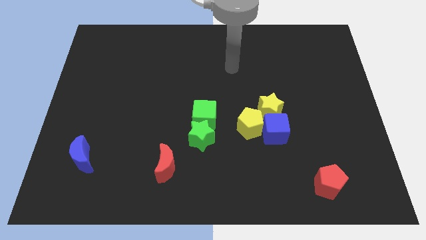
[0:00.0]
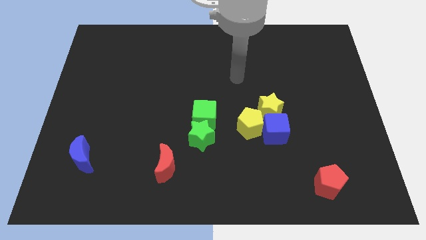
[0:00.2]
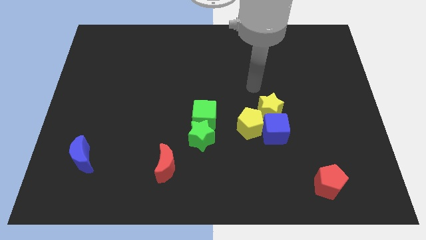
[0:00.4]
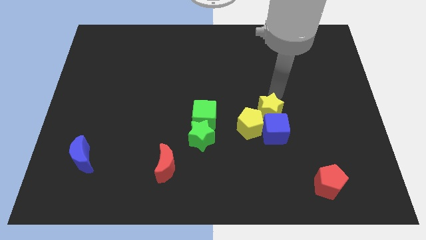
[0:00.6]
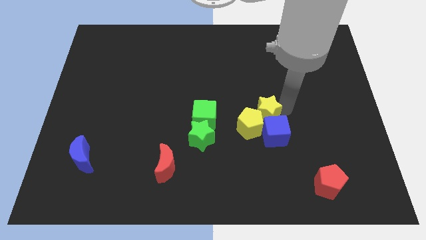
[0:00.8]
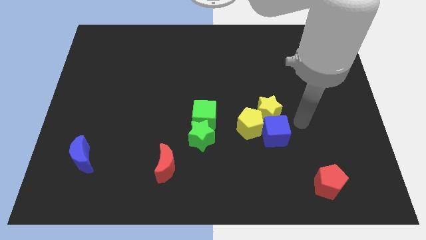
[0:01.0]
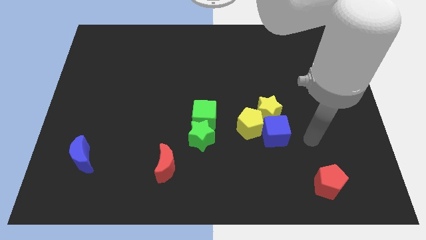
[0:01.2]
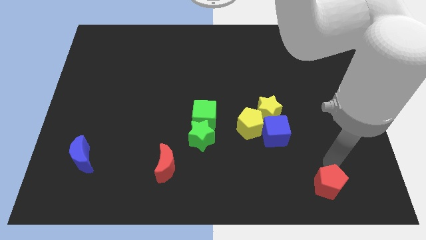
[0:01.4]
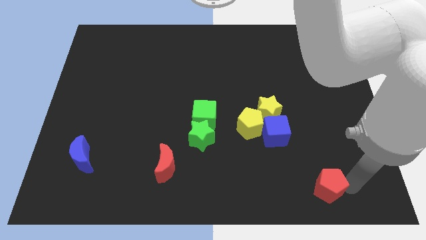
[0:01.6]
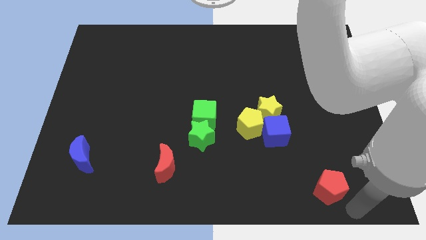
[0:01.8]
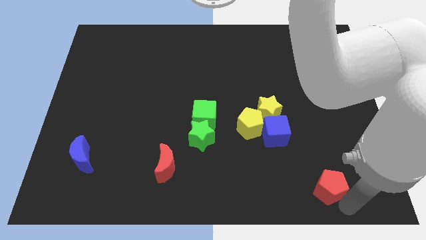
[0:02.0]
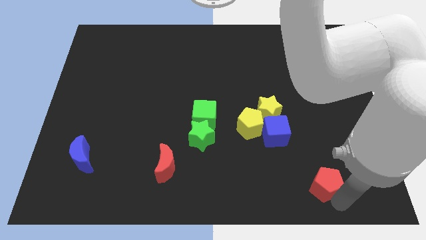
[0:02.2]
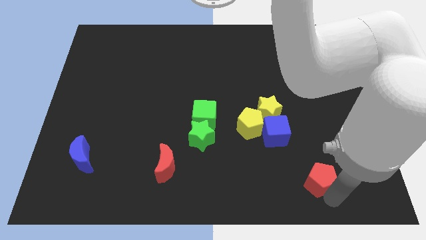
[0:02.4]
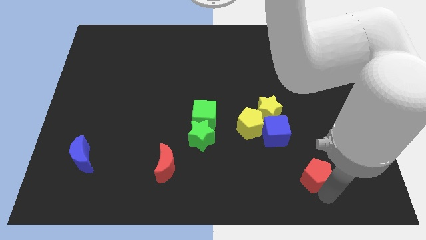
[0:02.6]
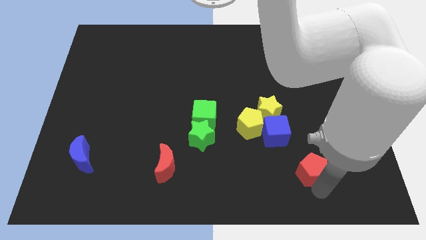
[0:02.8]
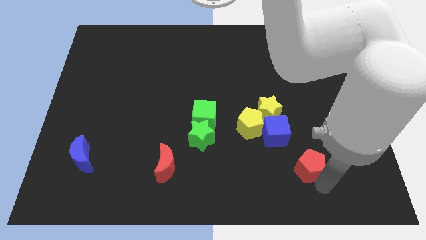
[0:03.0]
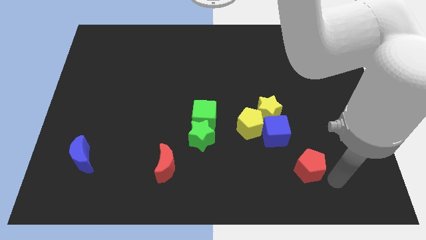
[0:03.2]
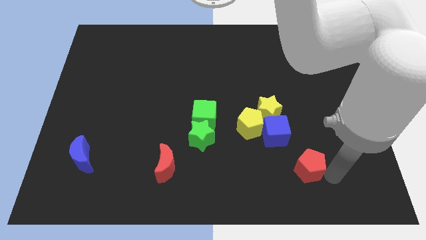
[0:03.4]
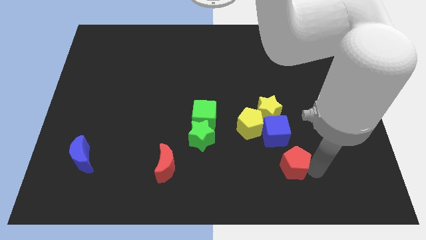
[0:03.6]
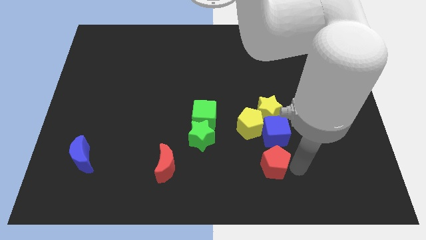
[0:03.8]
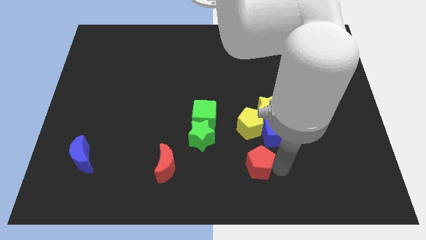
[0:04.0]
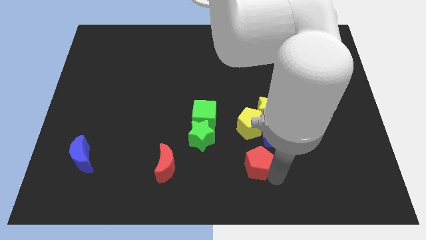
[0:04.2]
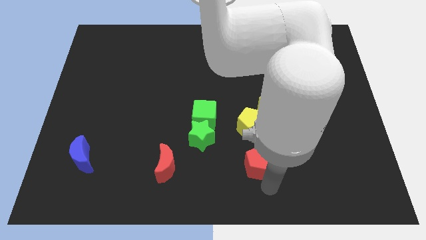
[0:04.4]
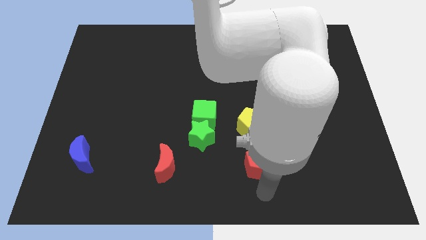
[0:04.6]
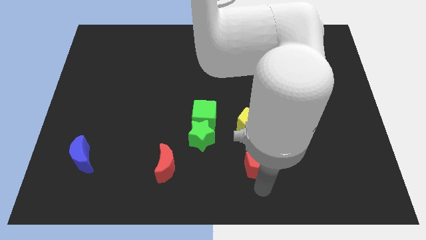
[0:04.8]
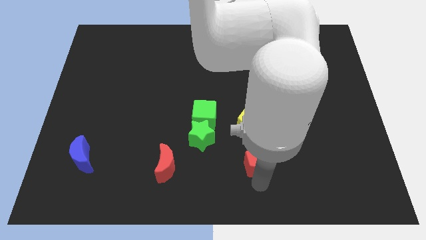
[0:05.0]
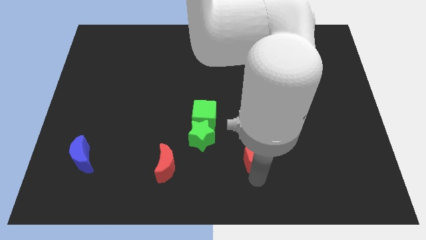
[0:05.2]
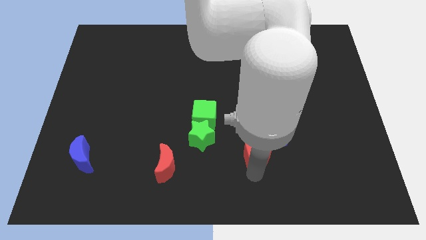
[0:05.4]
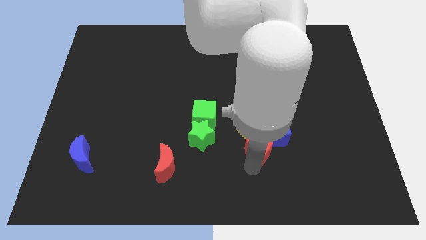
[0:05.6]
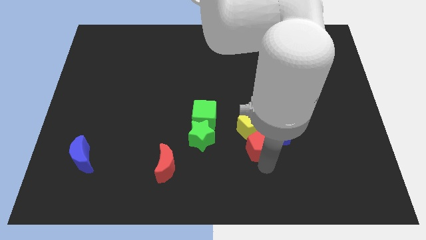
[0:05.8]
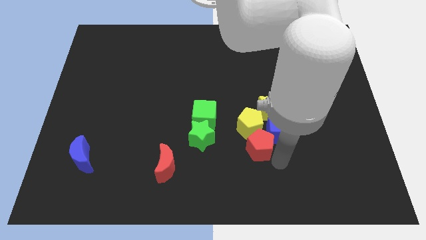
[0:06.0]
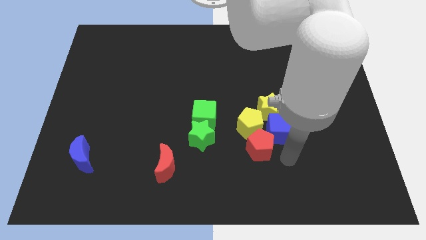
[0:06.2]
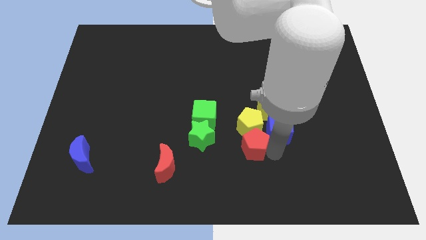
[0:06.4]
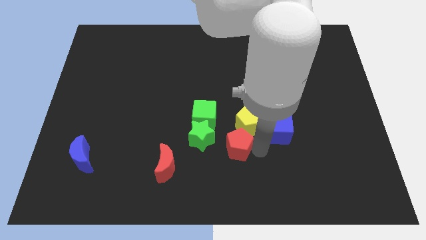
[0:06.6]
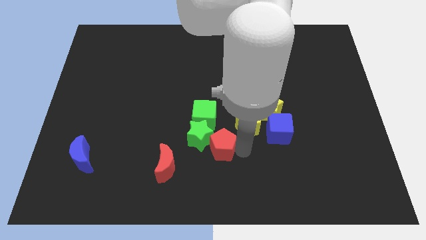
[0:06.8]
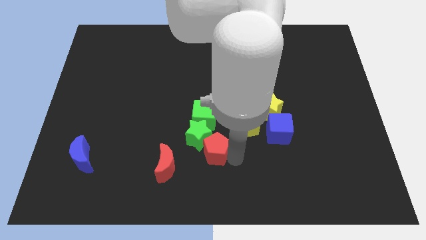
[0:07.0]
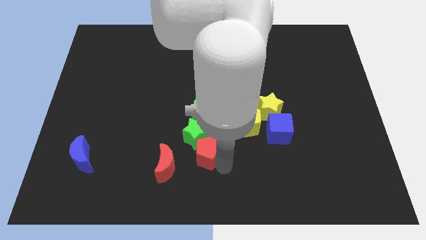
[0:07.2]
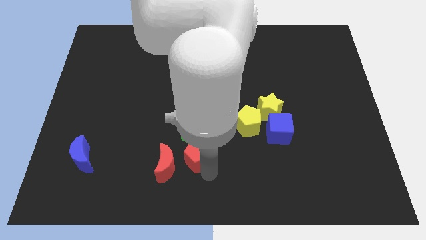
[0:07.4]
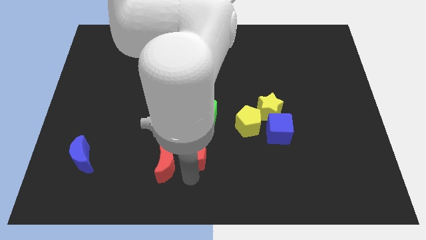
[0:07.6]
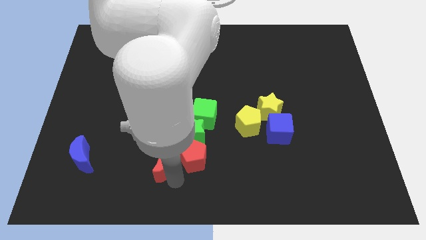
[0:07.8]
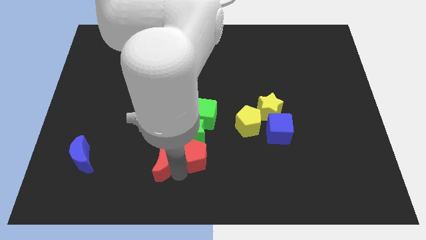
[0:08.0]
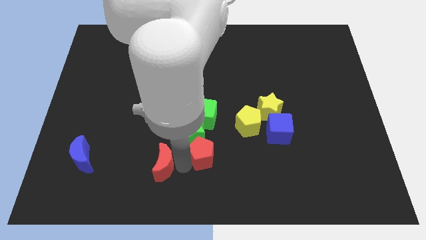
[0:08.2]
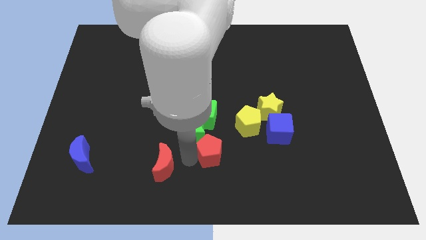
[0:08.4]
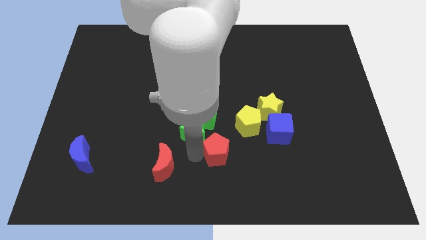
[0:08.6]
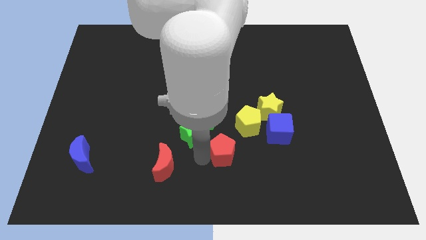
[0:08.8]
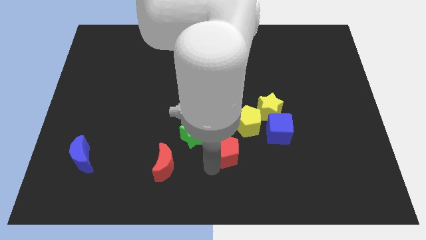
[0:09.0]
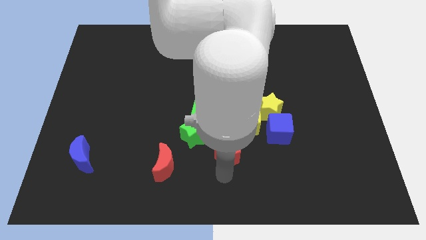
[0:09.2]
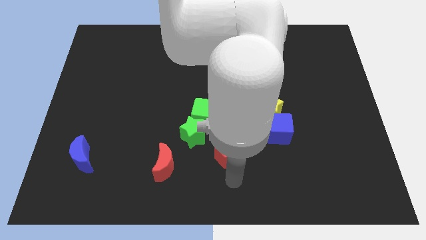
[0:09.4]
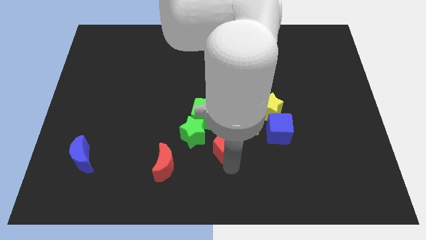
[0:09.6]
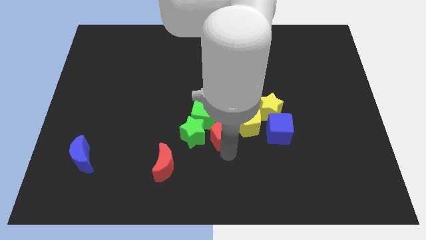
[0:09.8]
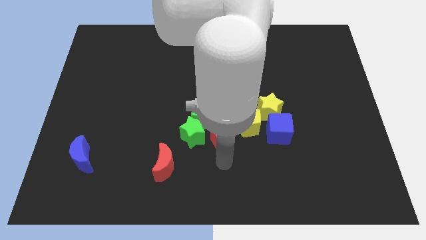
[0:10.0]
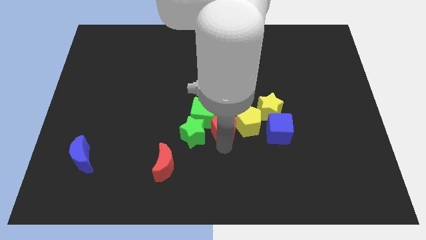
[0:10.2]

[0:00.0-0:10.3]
move the red pentagon to the top left side of the yellow pentagon

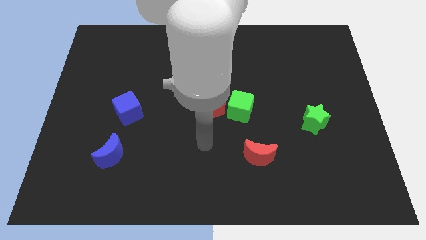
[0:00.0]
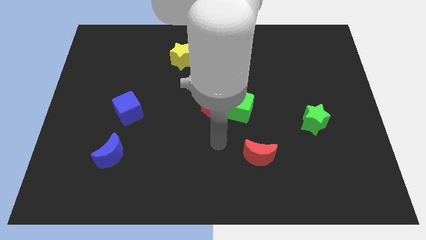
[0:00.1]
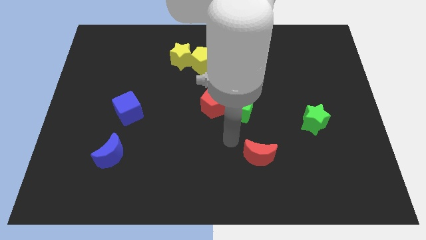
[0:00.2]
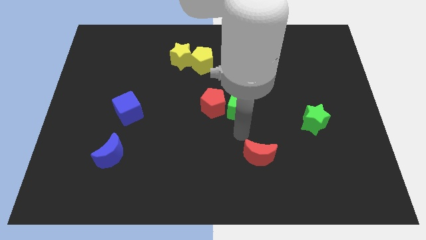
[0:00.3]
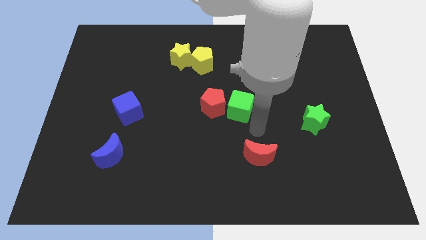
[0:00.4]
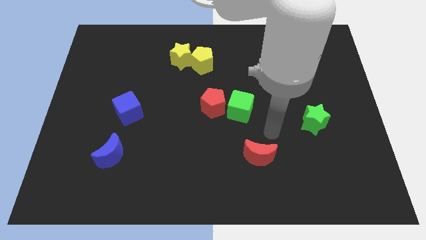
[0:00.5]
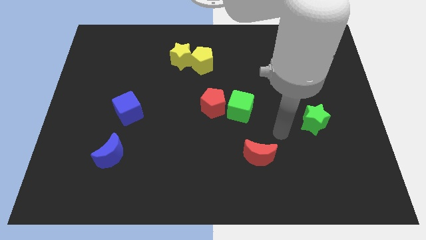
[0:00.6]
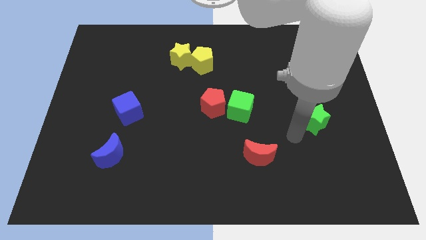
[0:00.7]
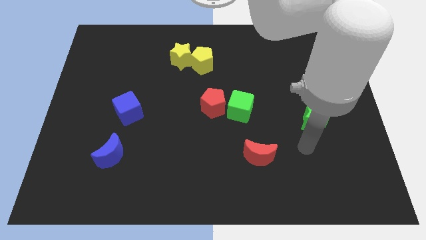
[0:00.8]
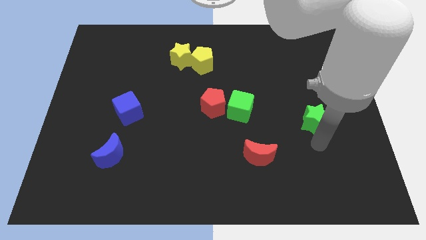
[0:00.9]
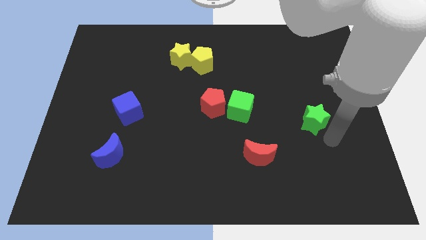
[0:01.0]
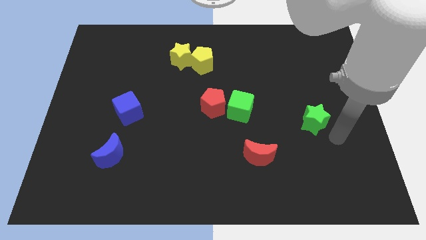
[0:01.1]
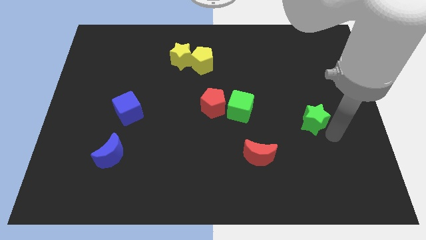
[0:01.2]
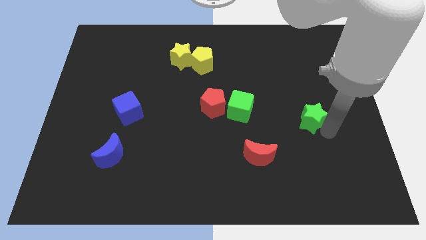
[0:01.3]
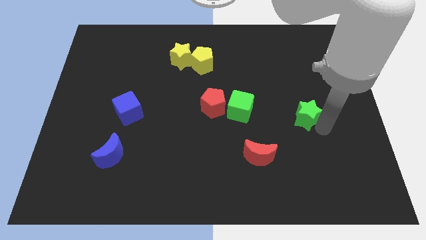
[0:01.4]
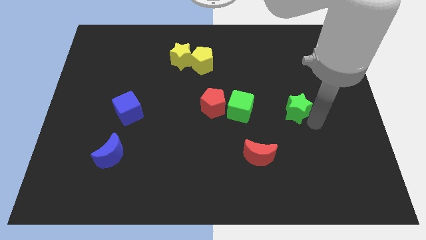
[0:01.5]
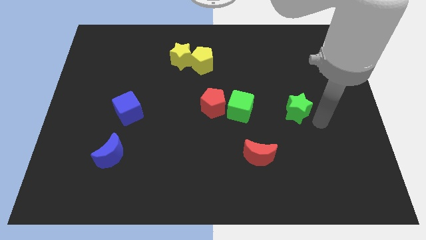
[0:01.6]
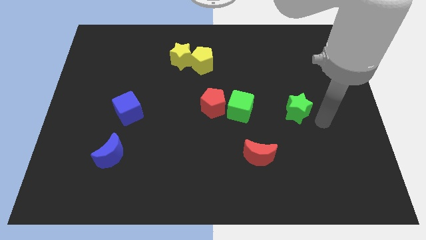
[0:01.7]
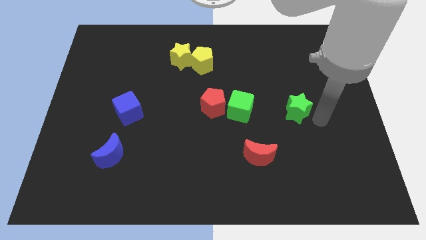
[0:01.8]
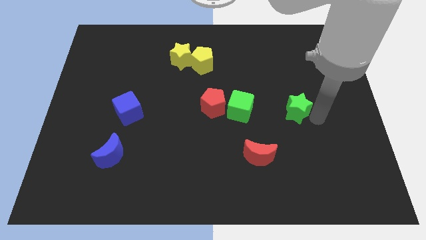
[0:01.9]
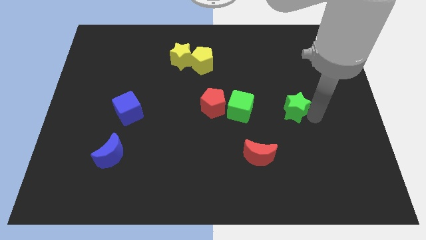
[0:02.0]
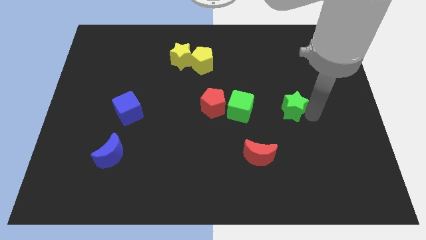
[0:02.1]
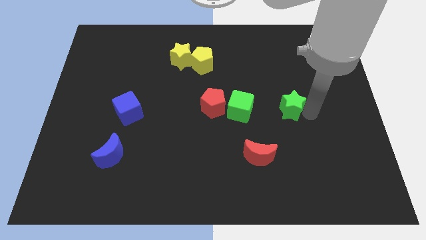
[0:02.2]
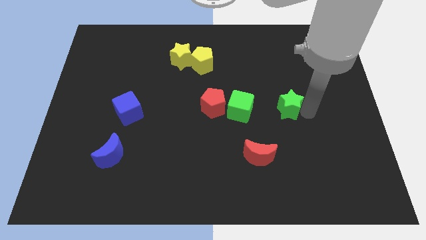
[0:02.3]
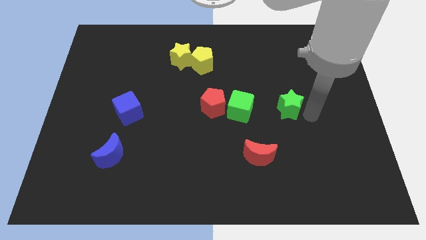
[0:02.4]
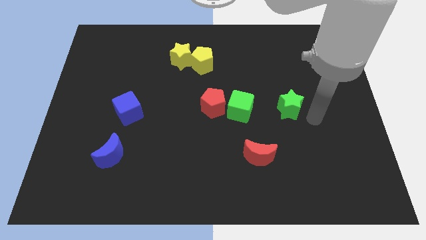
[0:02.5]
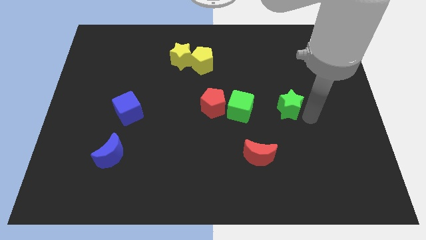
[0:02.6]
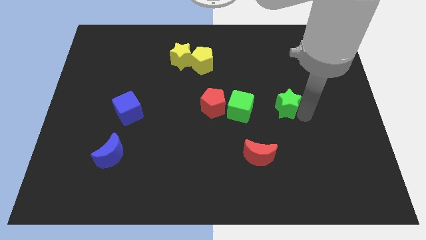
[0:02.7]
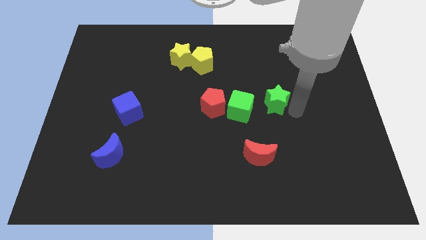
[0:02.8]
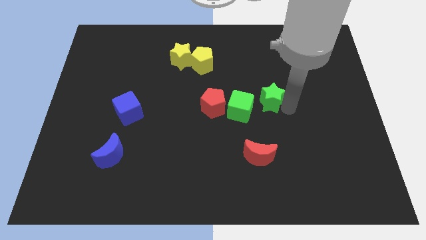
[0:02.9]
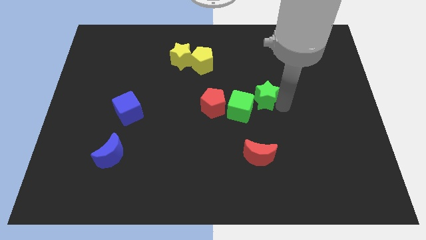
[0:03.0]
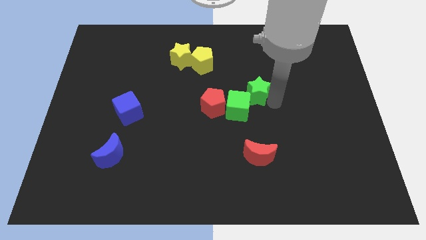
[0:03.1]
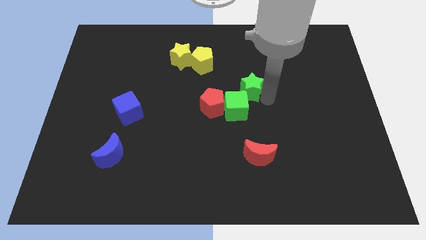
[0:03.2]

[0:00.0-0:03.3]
slide the green star diagonally up and to the right of the red pentagon
